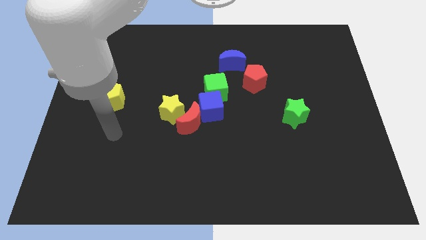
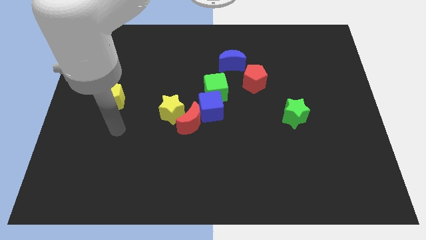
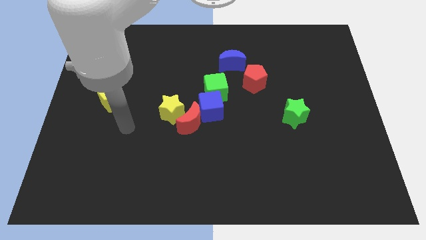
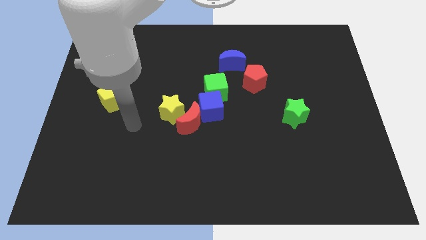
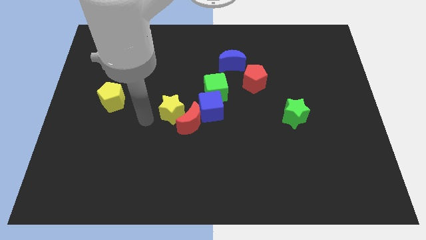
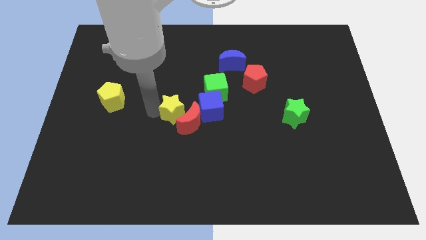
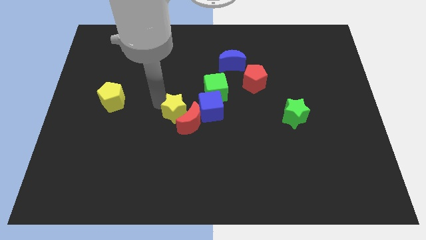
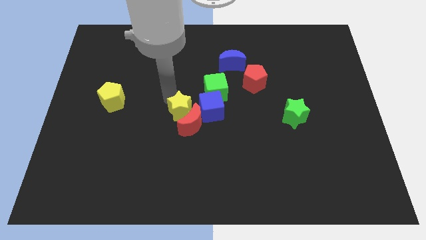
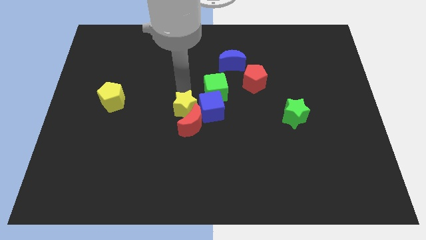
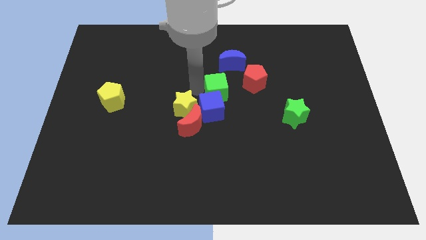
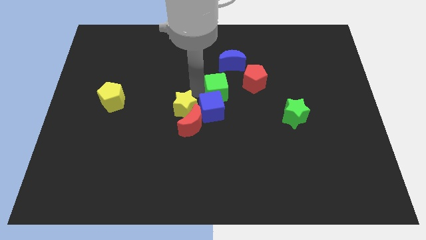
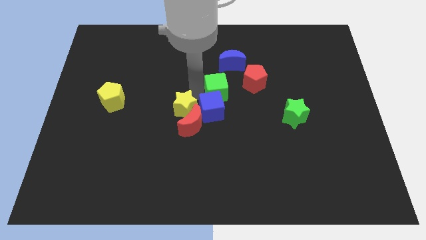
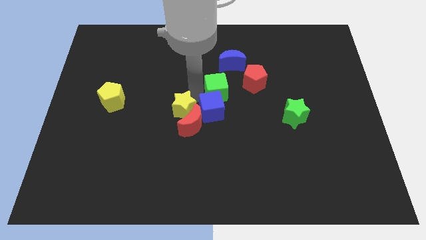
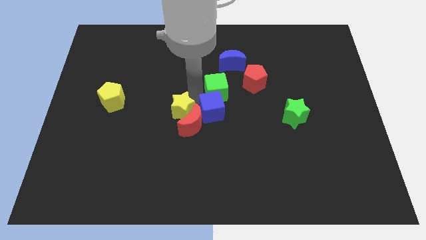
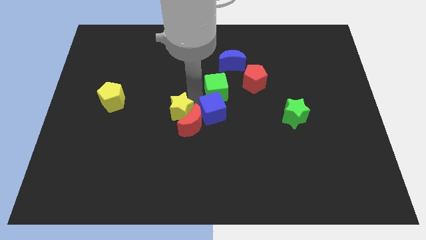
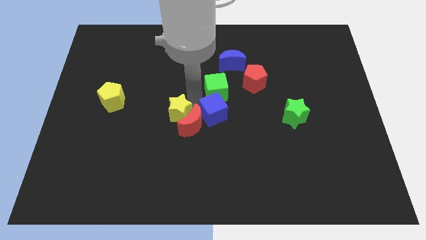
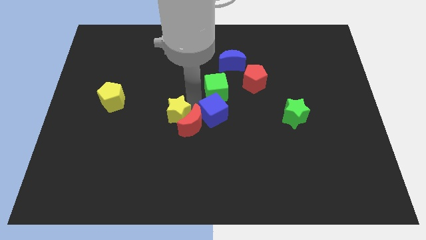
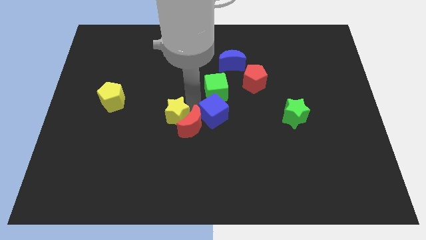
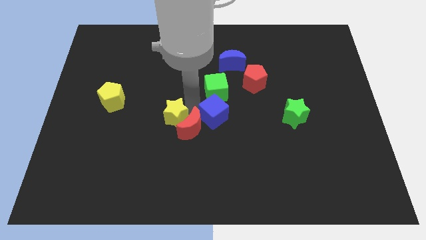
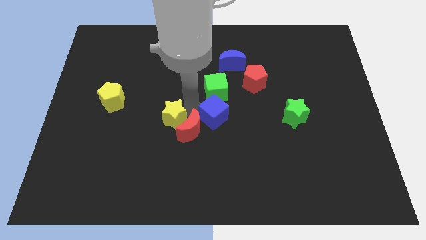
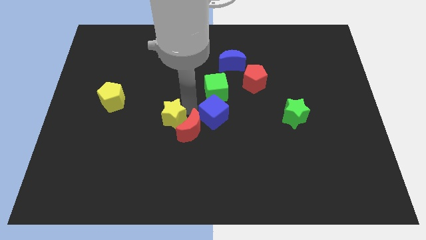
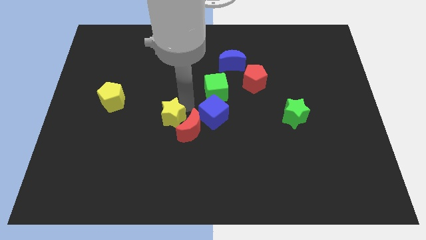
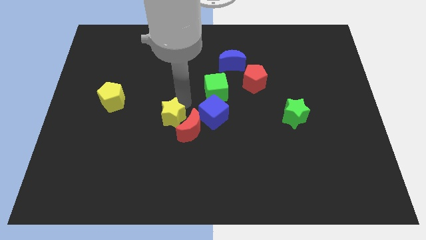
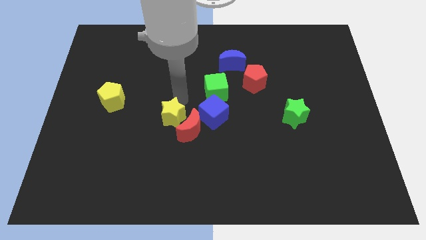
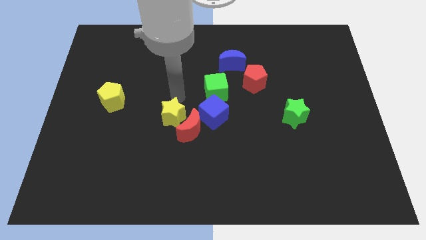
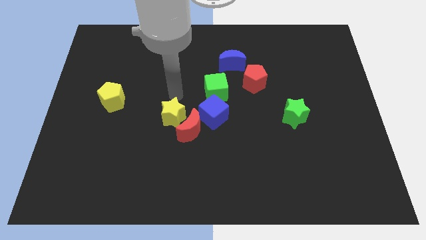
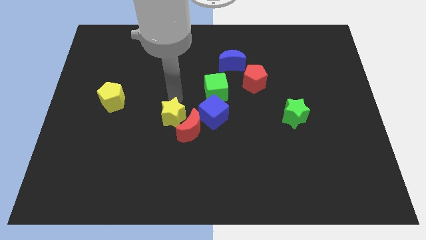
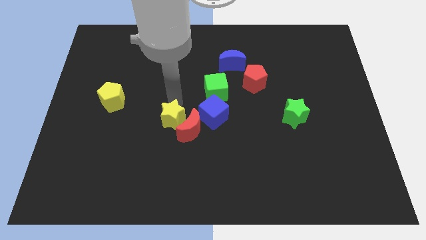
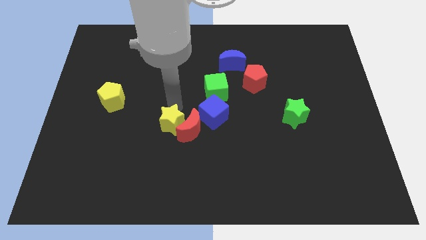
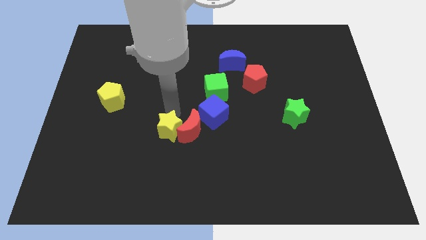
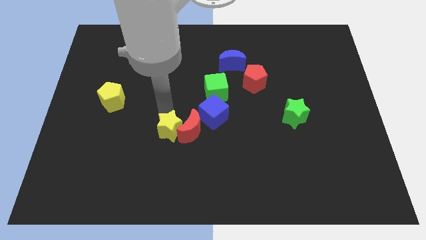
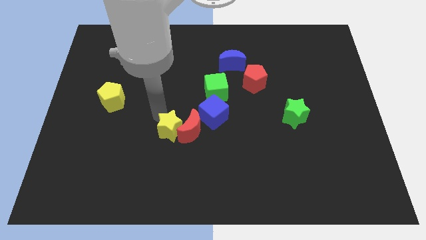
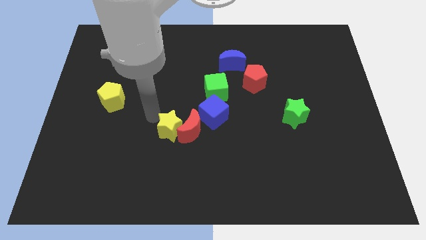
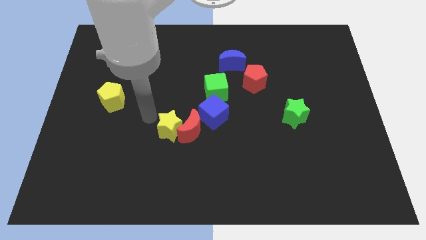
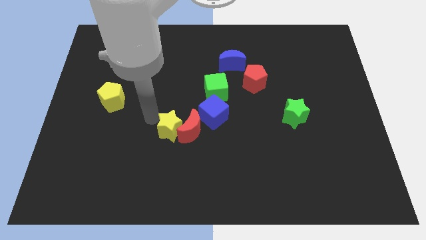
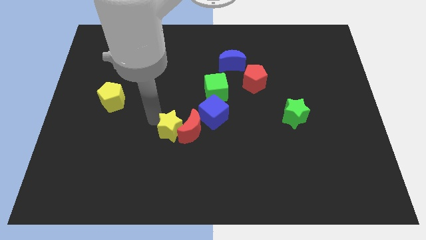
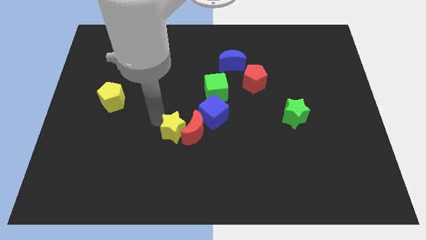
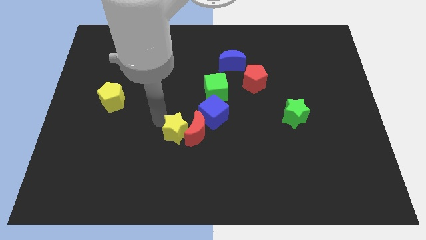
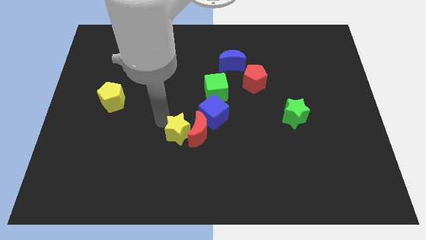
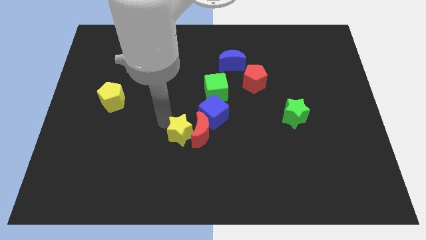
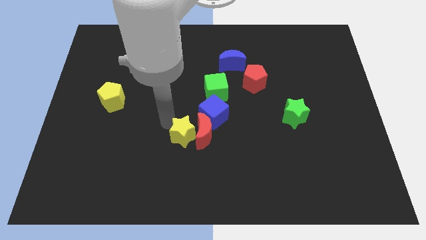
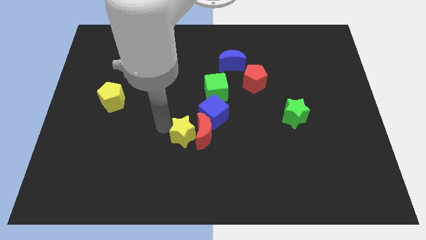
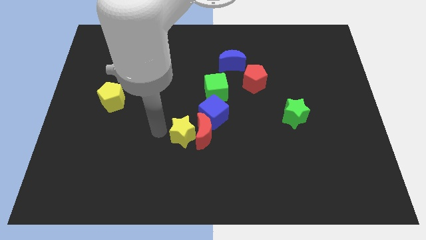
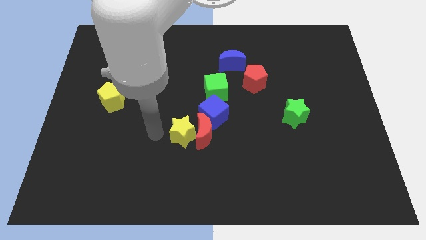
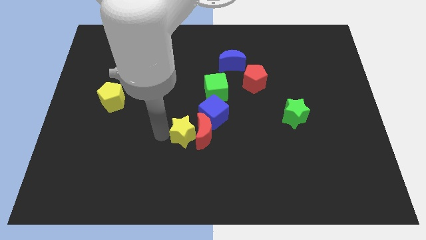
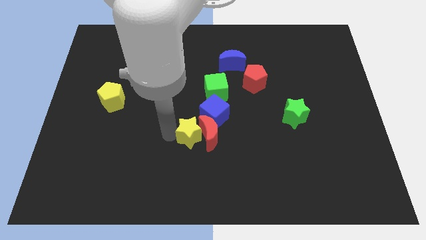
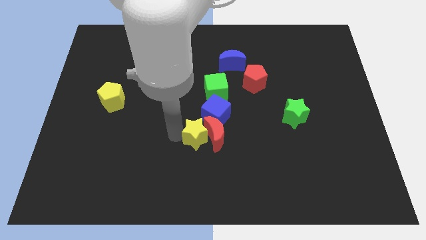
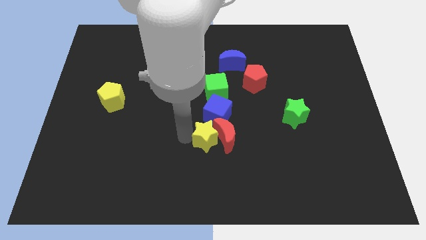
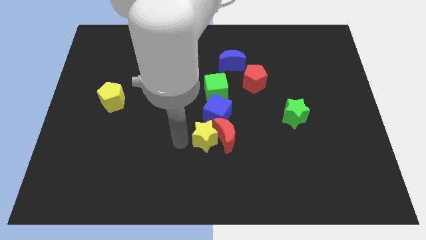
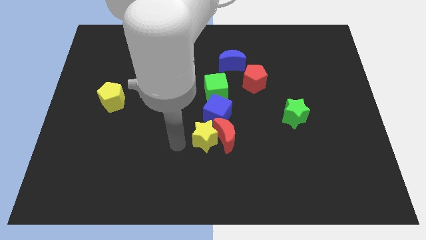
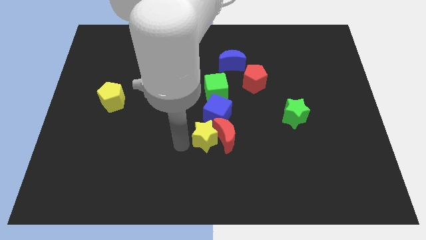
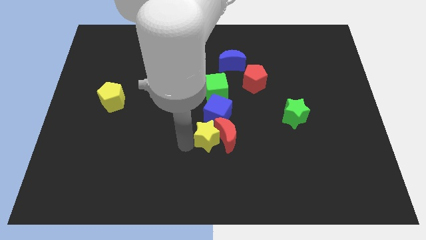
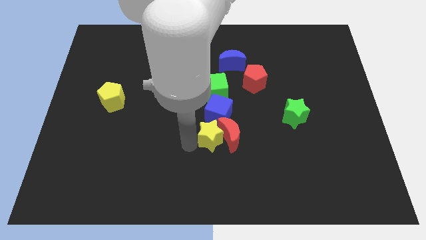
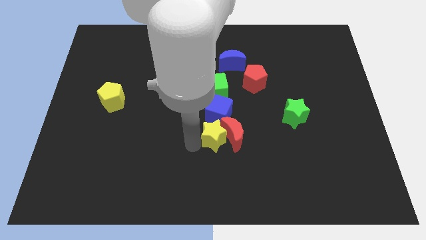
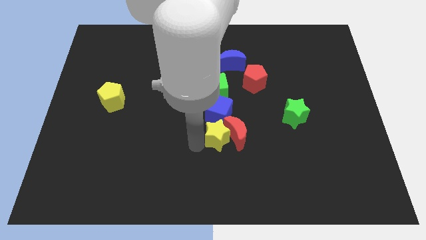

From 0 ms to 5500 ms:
move the yellow star diagonally down and to the right of the blue cube

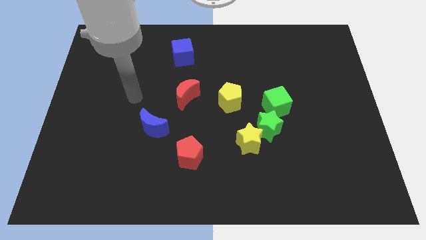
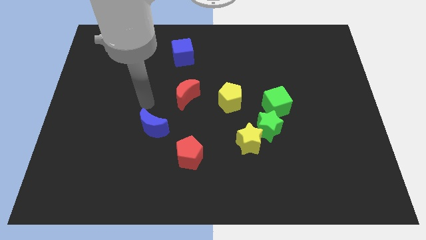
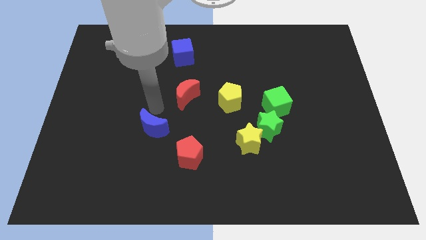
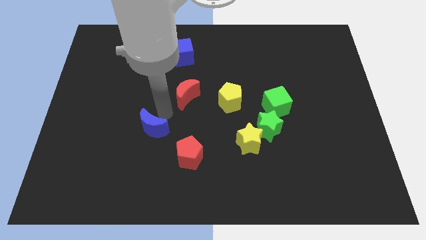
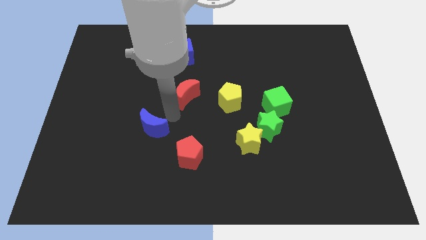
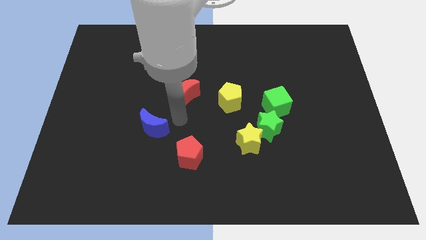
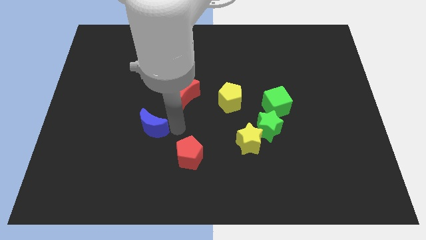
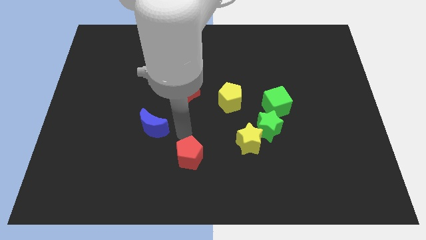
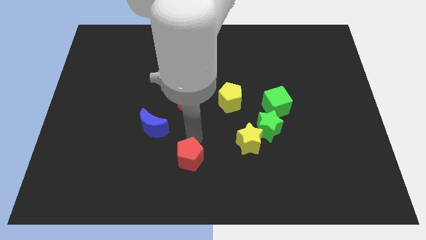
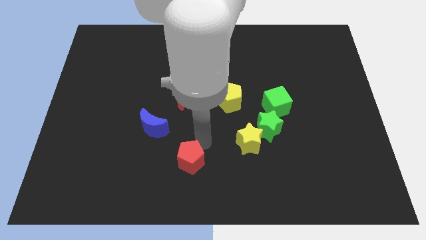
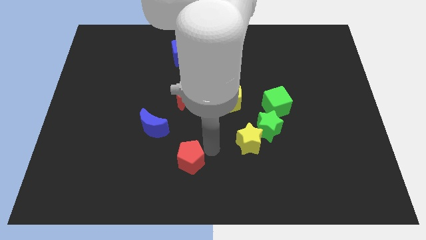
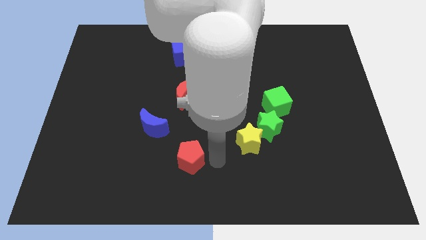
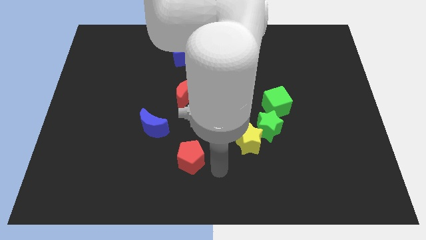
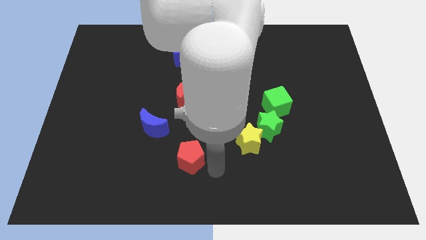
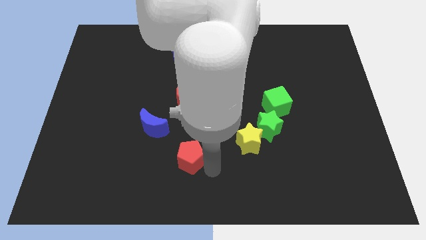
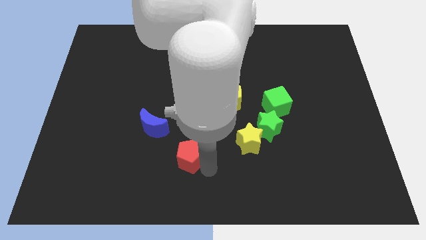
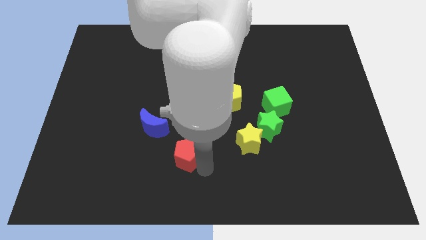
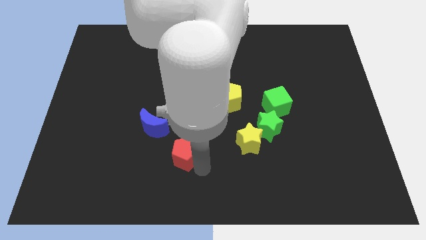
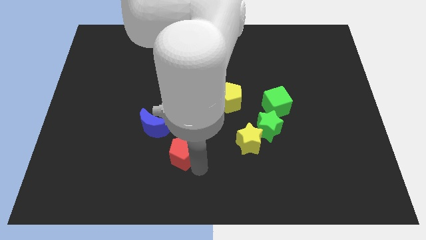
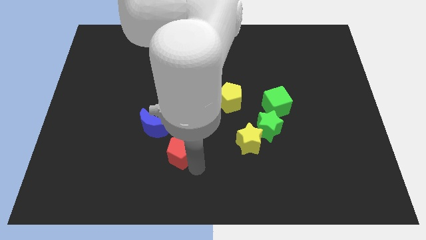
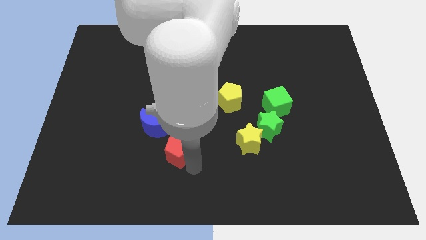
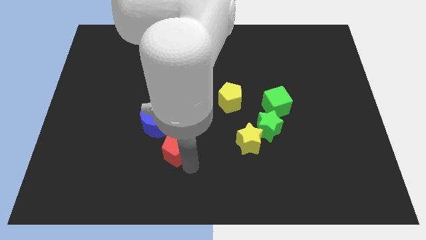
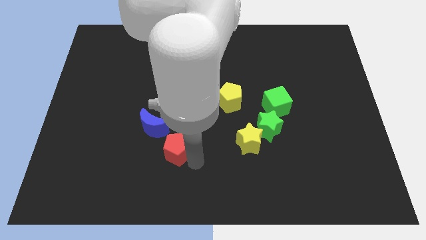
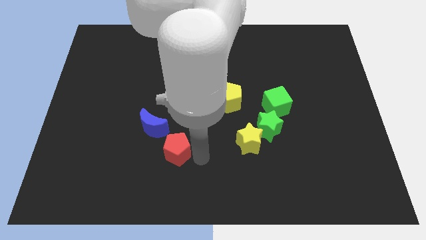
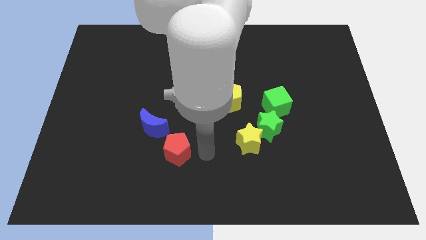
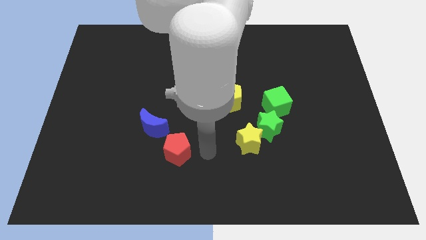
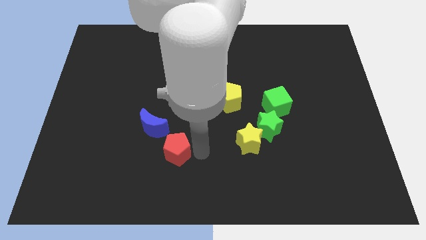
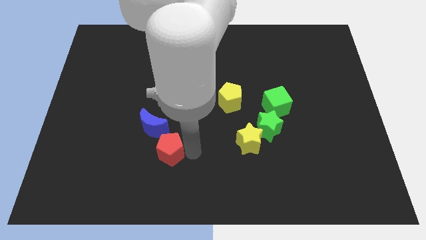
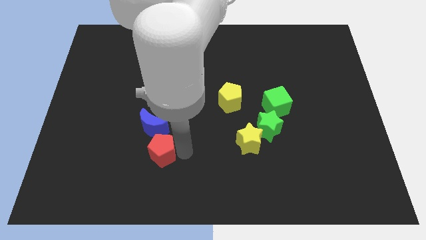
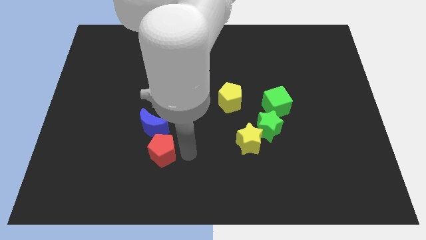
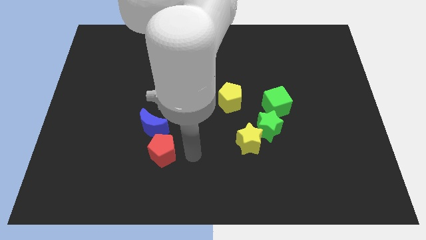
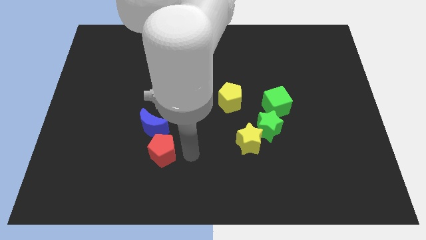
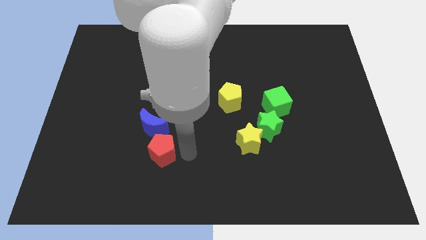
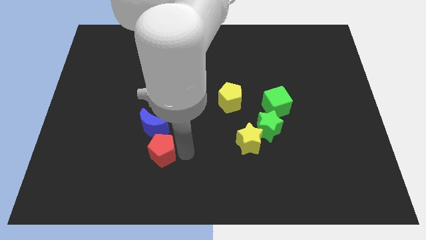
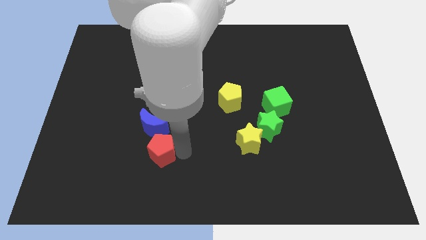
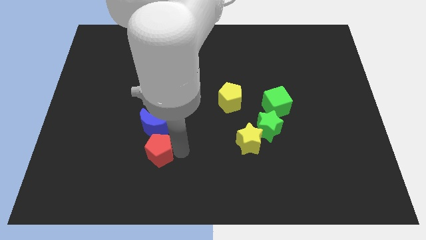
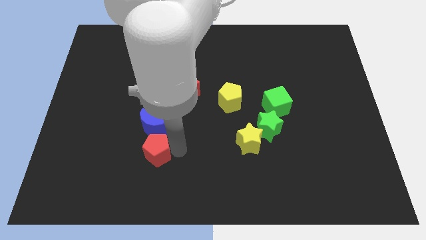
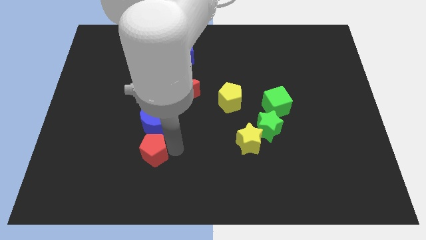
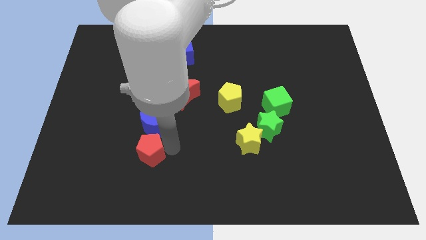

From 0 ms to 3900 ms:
move the red pentagon to the bottom left side of the blue moon
